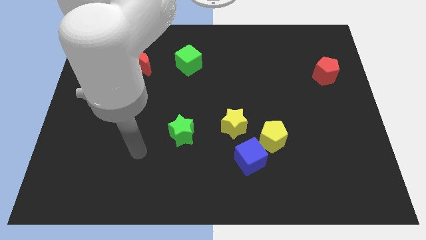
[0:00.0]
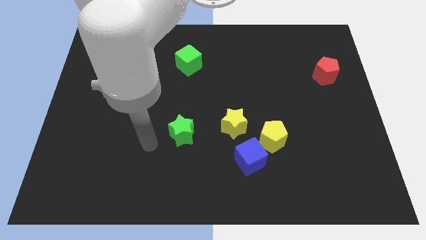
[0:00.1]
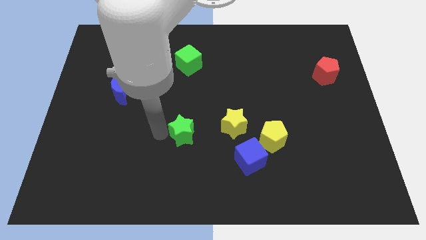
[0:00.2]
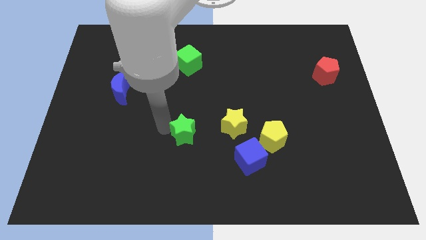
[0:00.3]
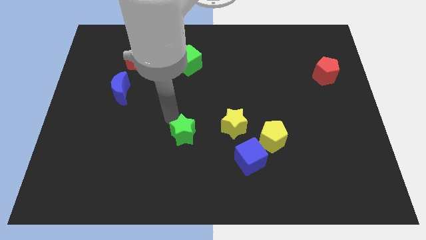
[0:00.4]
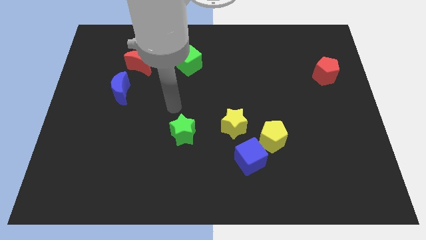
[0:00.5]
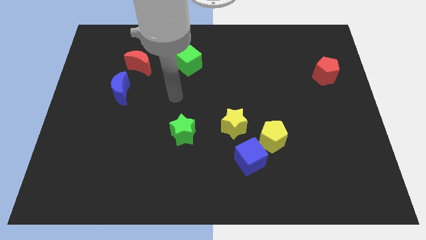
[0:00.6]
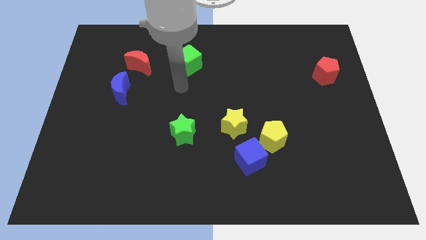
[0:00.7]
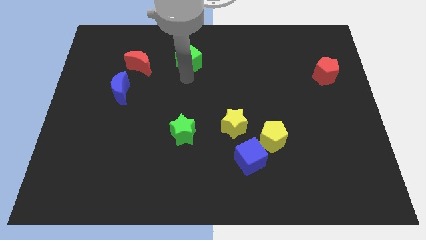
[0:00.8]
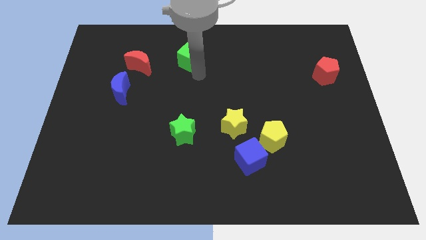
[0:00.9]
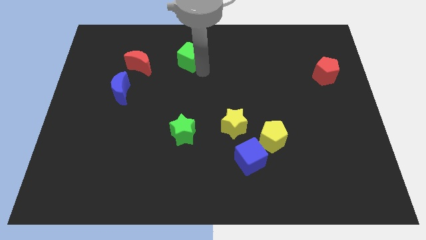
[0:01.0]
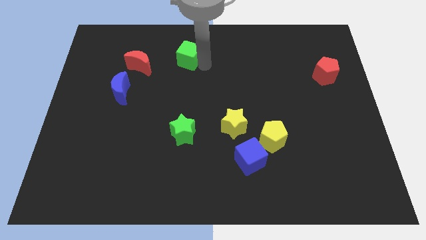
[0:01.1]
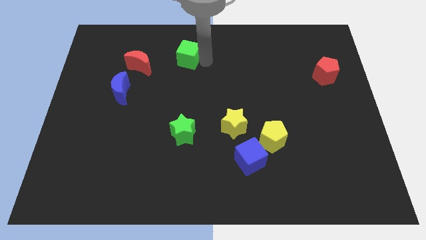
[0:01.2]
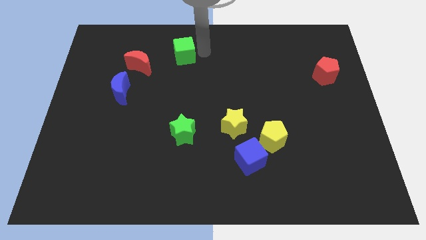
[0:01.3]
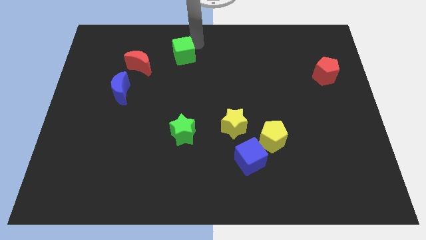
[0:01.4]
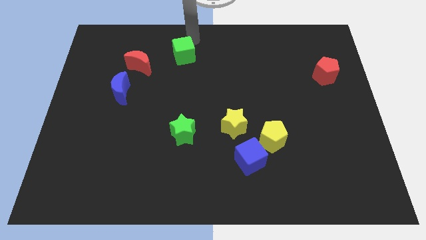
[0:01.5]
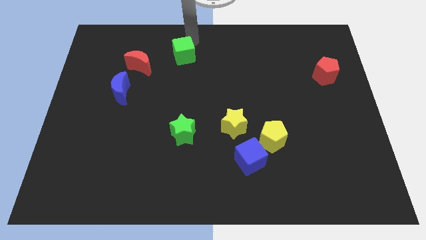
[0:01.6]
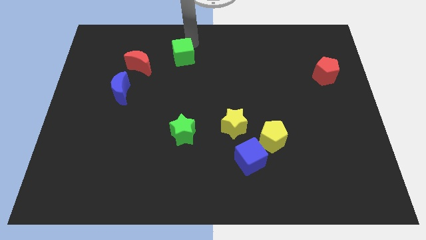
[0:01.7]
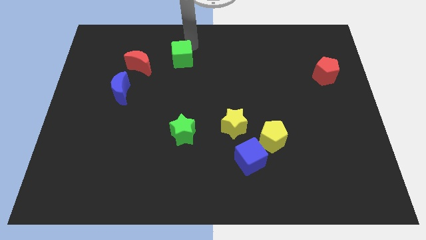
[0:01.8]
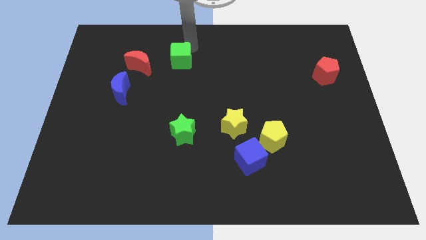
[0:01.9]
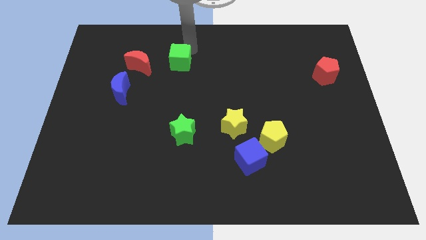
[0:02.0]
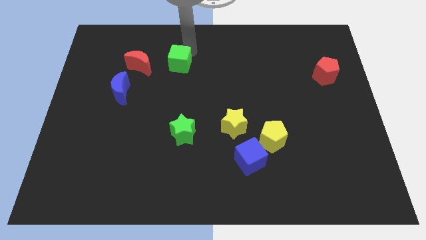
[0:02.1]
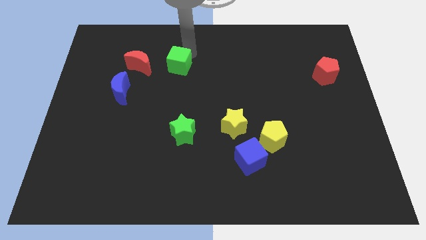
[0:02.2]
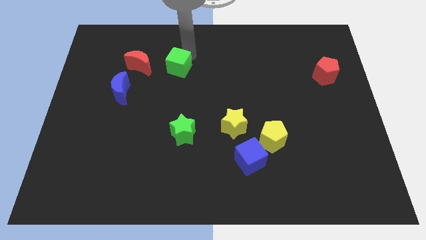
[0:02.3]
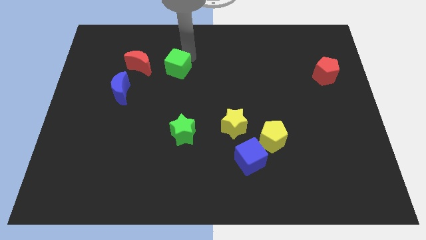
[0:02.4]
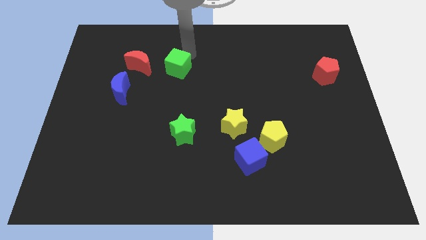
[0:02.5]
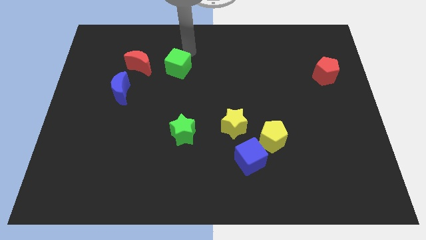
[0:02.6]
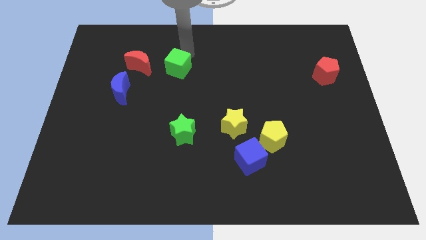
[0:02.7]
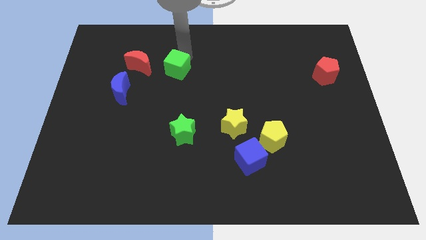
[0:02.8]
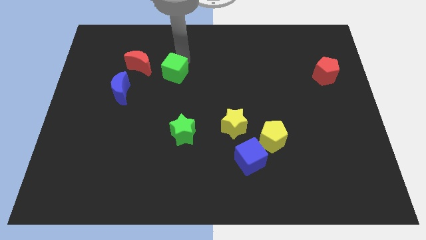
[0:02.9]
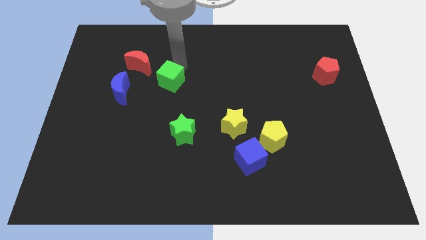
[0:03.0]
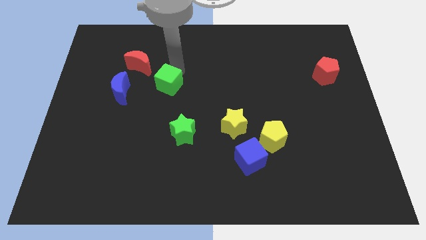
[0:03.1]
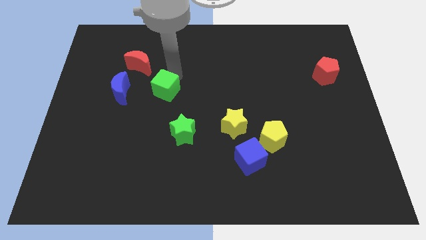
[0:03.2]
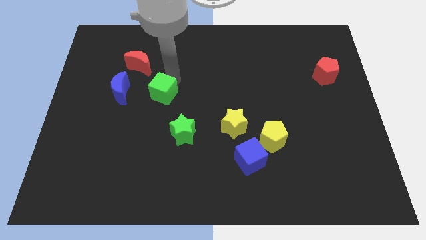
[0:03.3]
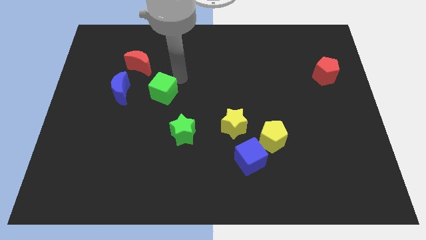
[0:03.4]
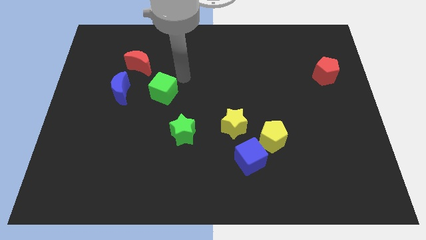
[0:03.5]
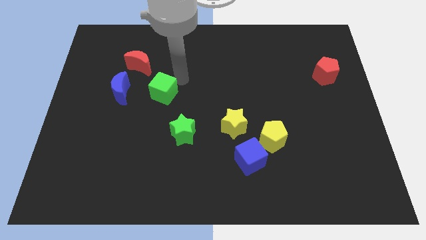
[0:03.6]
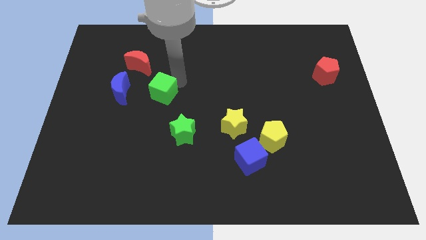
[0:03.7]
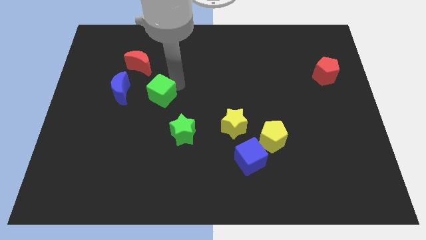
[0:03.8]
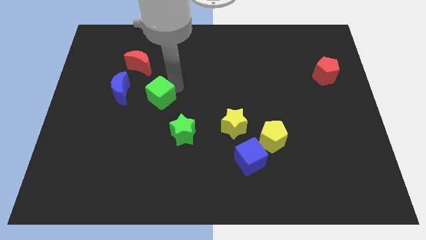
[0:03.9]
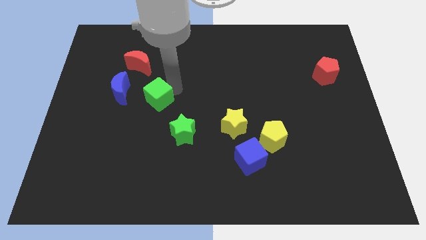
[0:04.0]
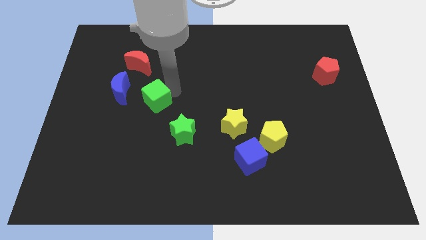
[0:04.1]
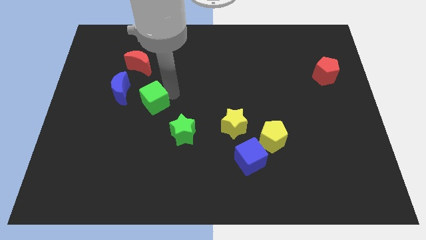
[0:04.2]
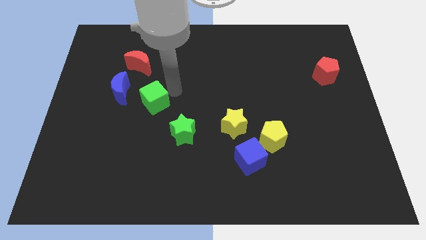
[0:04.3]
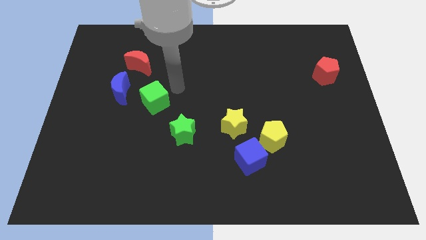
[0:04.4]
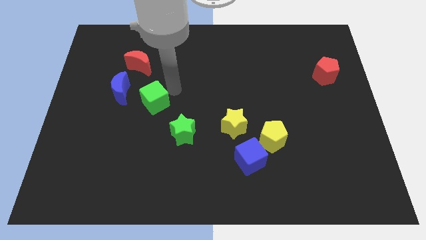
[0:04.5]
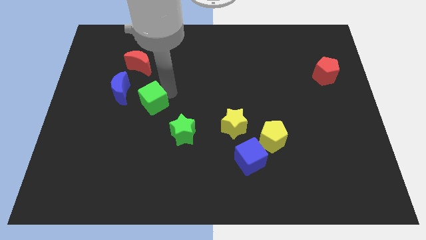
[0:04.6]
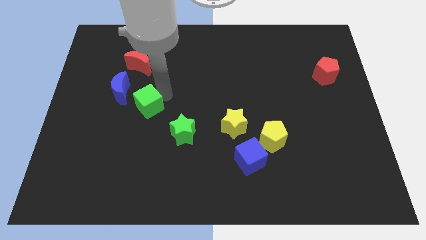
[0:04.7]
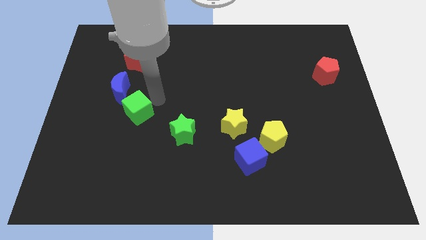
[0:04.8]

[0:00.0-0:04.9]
put the green cube to the bottom side of the blue moon

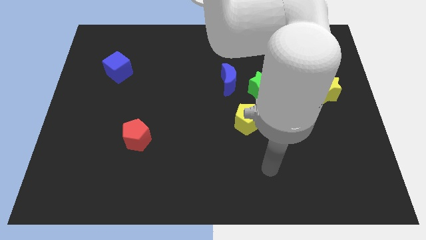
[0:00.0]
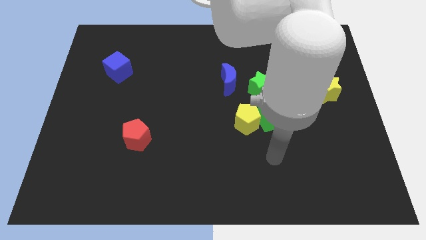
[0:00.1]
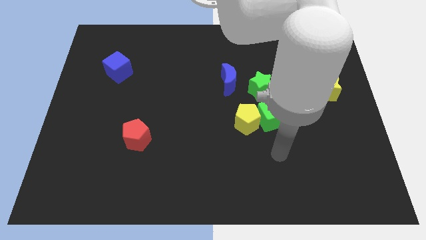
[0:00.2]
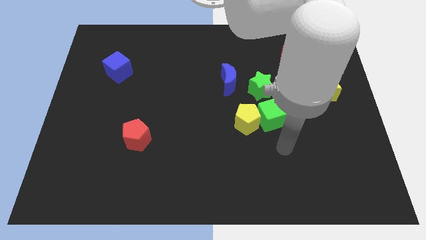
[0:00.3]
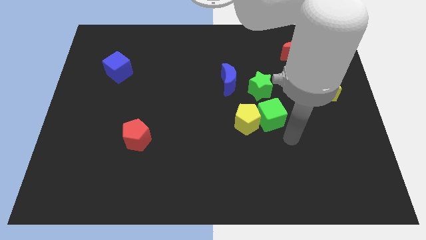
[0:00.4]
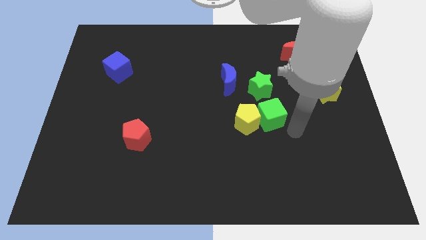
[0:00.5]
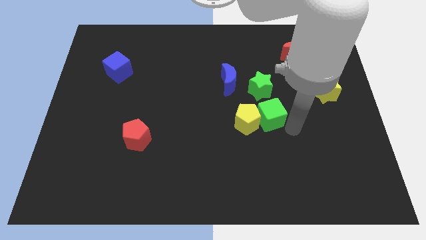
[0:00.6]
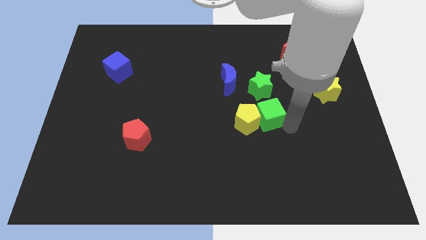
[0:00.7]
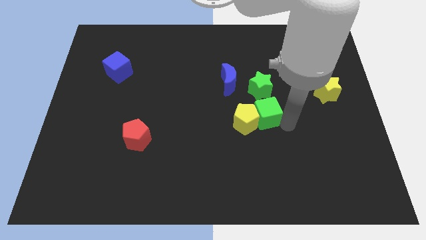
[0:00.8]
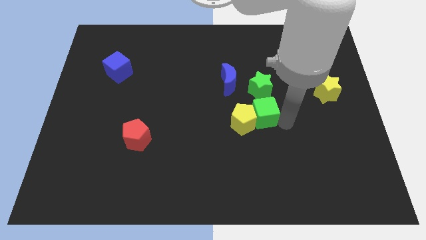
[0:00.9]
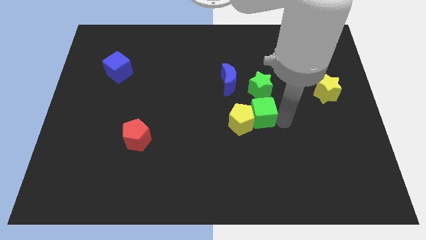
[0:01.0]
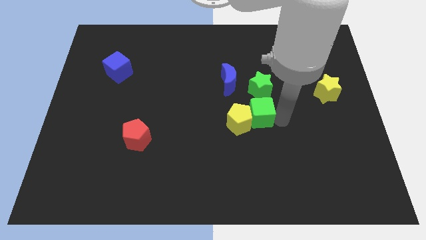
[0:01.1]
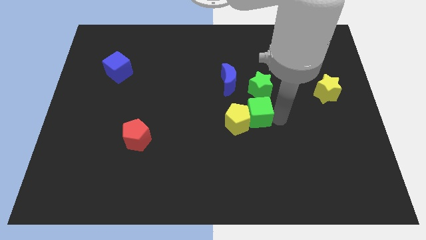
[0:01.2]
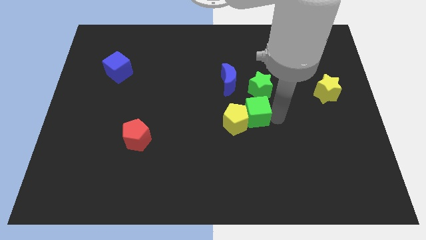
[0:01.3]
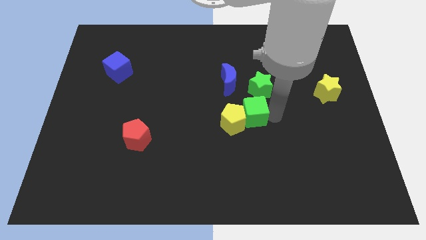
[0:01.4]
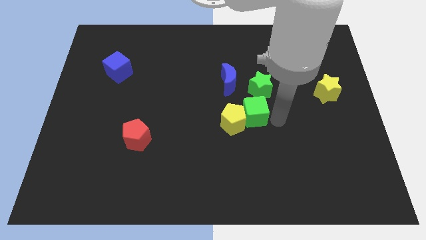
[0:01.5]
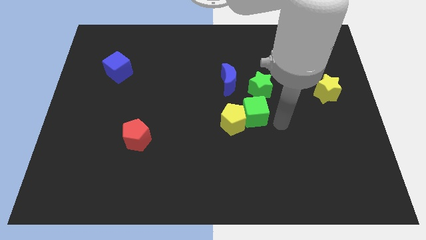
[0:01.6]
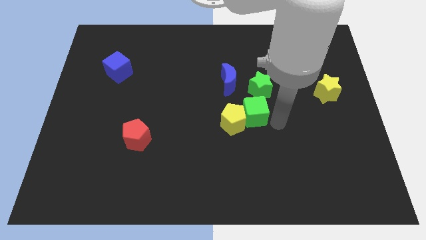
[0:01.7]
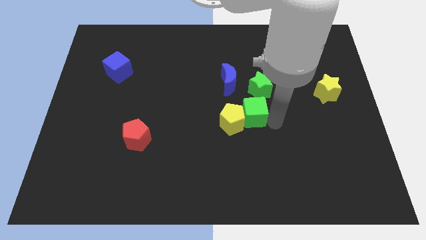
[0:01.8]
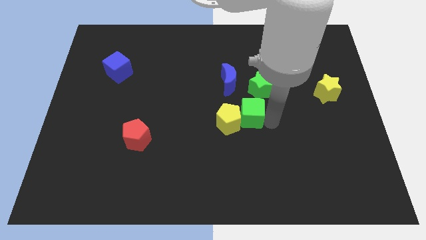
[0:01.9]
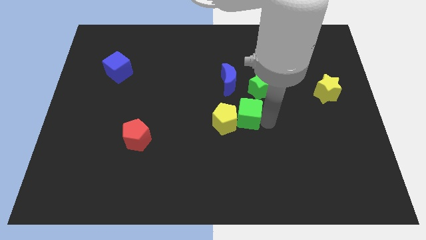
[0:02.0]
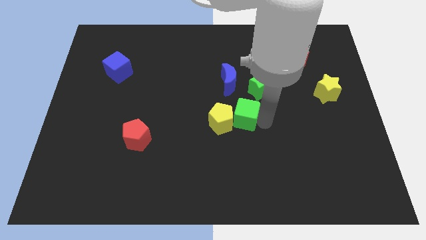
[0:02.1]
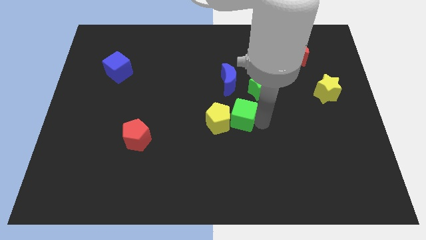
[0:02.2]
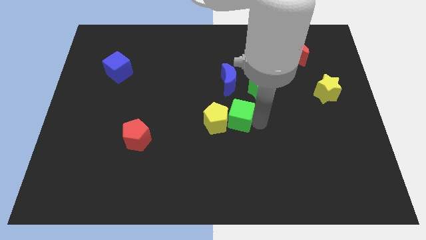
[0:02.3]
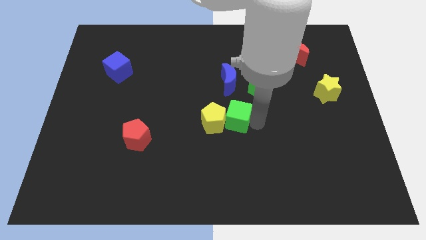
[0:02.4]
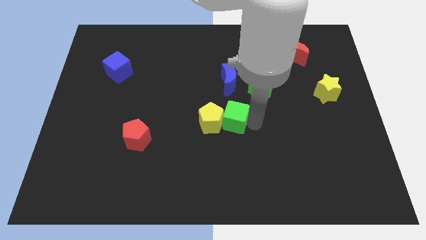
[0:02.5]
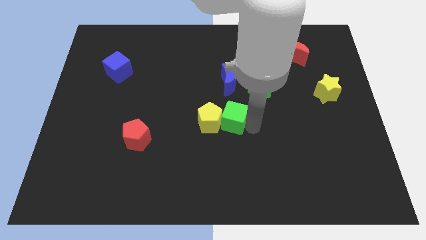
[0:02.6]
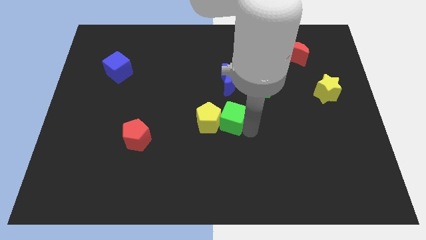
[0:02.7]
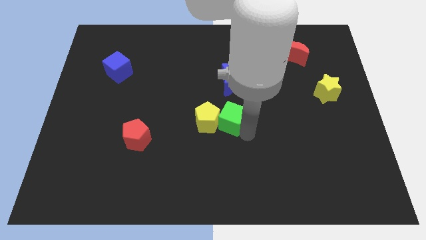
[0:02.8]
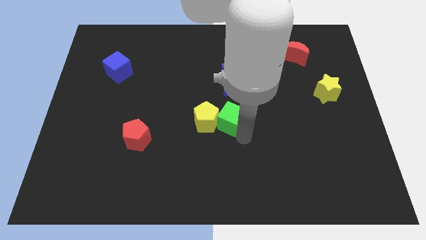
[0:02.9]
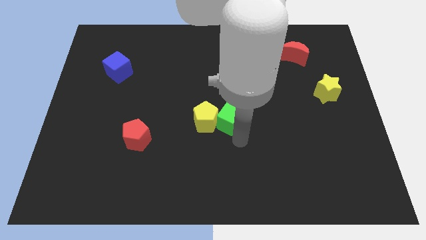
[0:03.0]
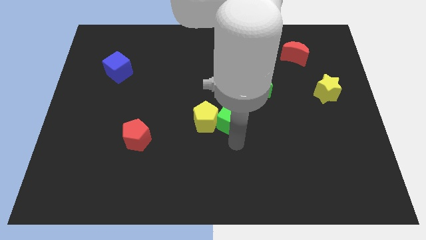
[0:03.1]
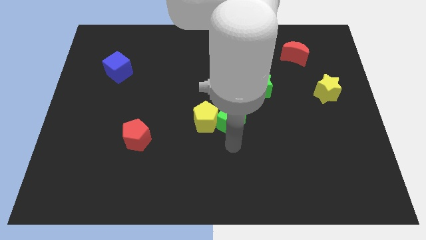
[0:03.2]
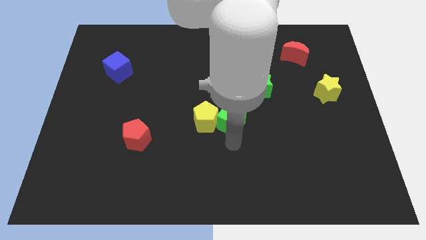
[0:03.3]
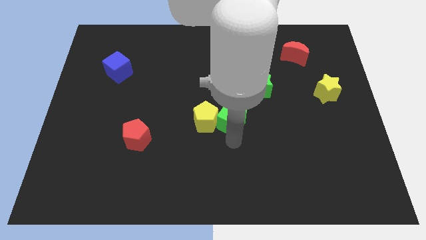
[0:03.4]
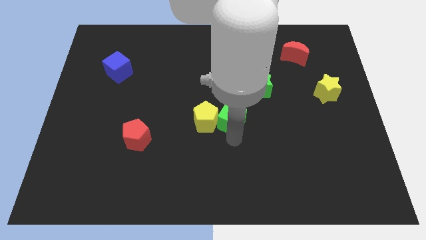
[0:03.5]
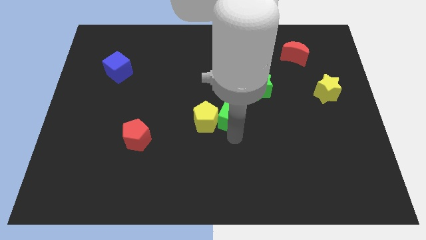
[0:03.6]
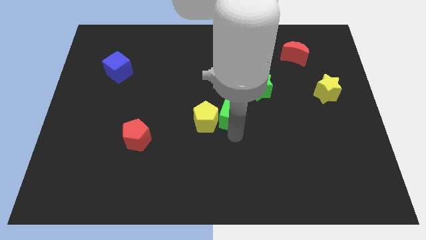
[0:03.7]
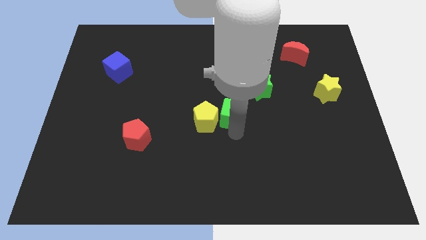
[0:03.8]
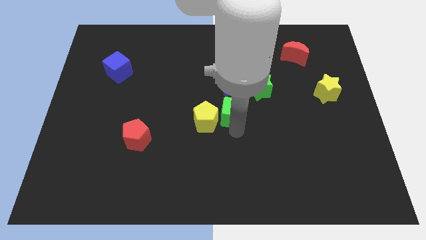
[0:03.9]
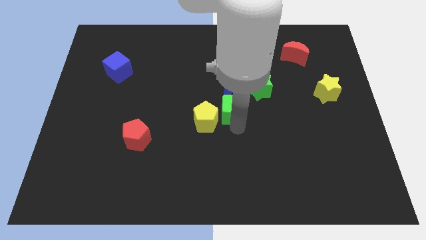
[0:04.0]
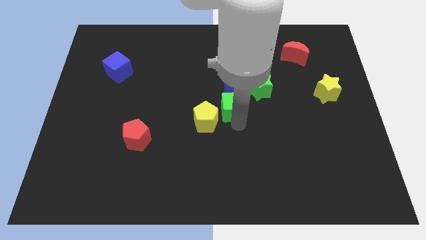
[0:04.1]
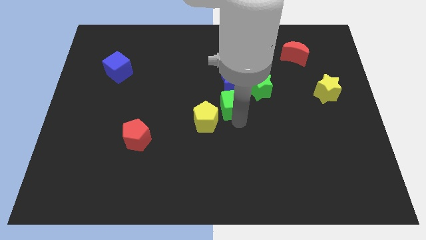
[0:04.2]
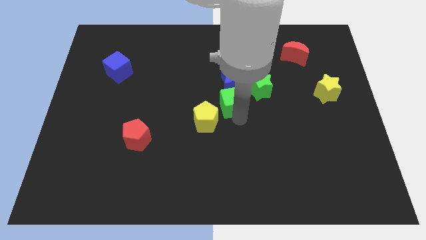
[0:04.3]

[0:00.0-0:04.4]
slide the green cube to the left side of the green star
